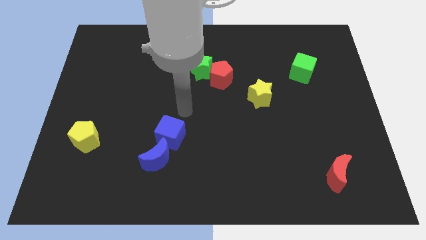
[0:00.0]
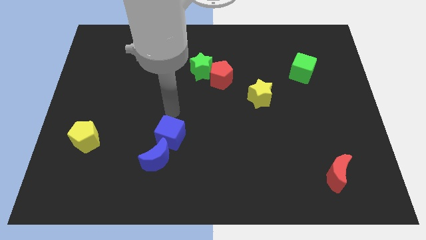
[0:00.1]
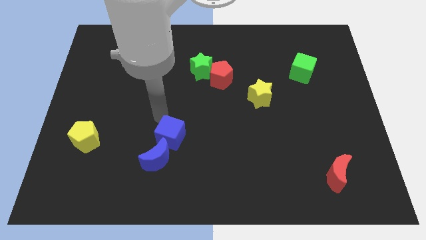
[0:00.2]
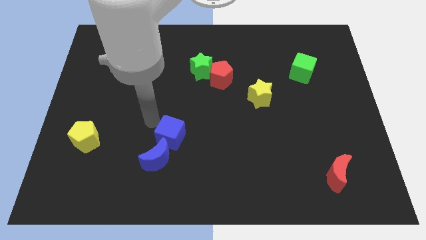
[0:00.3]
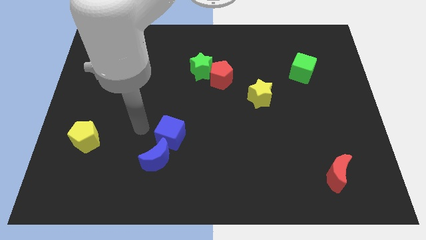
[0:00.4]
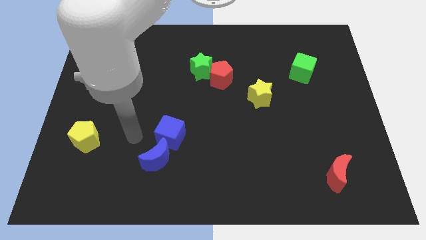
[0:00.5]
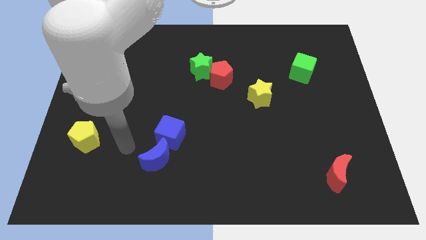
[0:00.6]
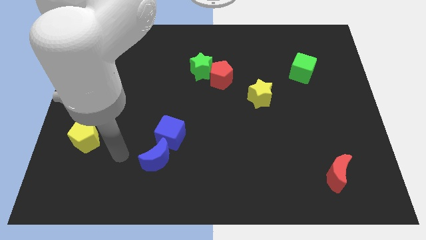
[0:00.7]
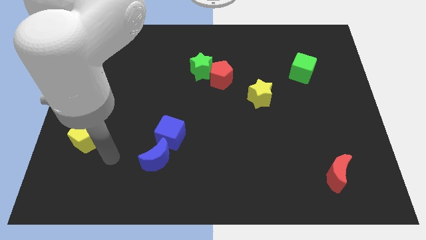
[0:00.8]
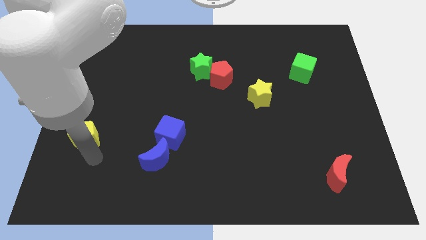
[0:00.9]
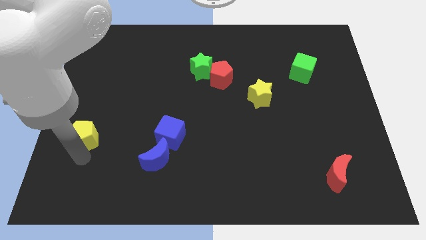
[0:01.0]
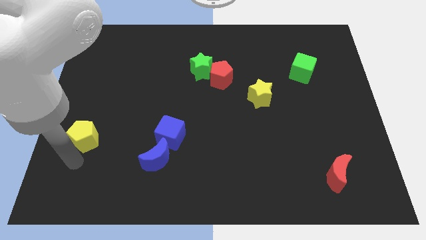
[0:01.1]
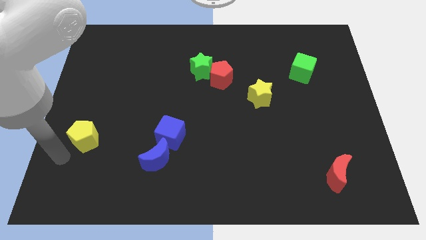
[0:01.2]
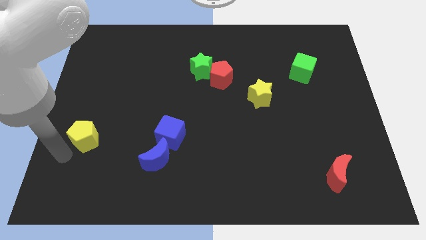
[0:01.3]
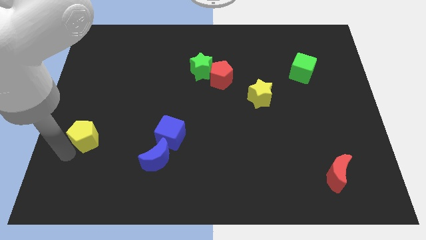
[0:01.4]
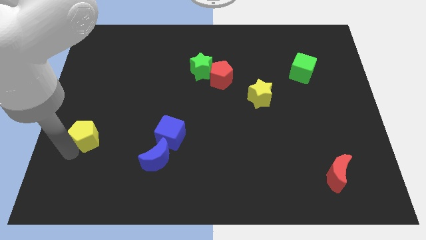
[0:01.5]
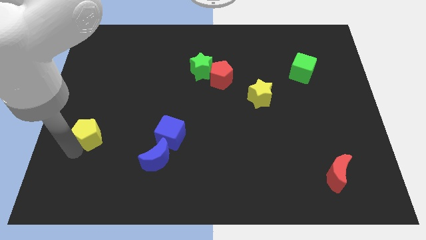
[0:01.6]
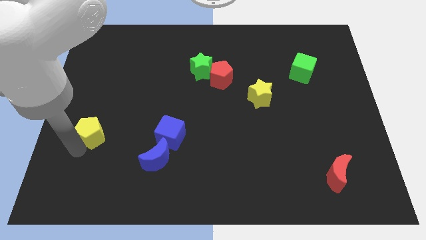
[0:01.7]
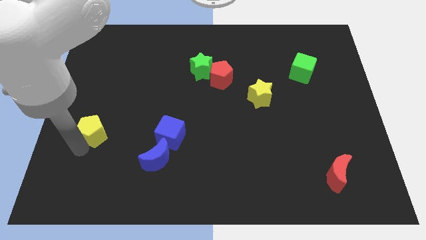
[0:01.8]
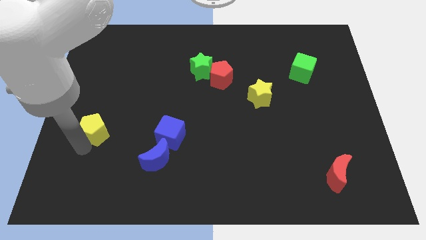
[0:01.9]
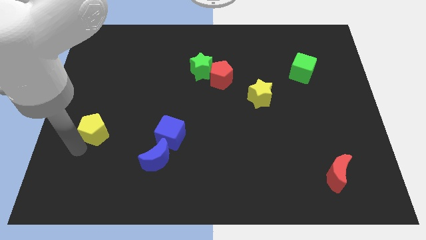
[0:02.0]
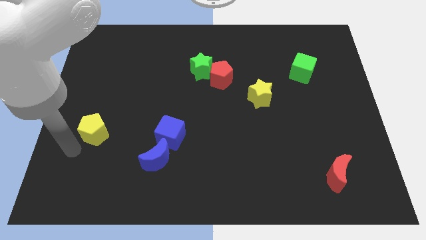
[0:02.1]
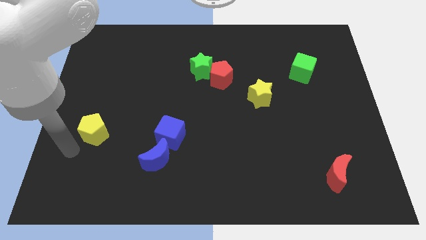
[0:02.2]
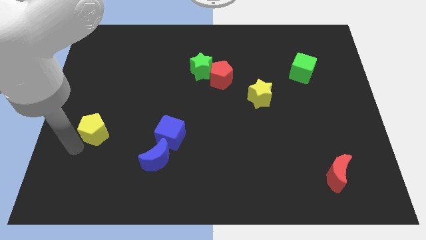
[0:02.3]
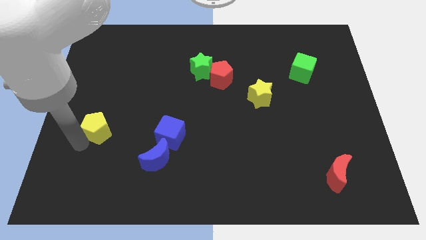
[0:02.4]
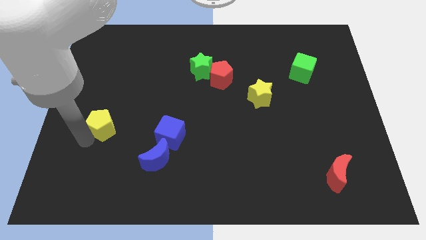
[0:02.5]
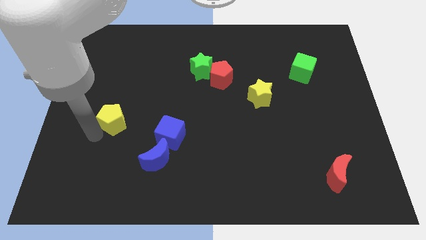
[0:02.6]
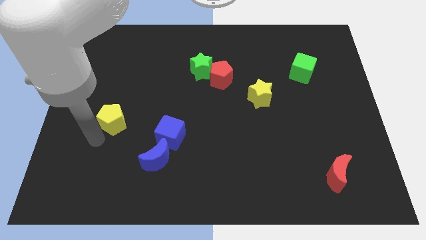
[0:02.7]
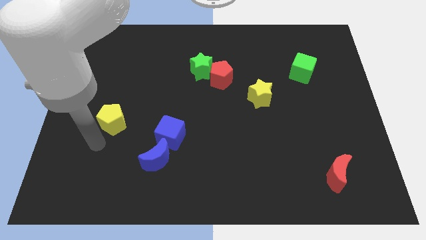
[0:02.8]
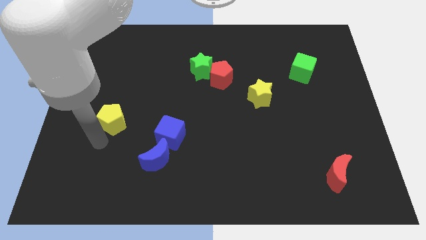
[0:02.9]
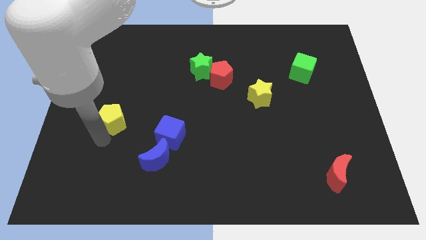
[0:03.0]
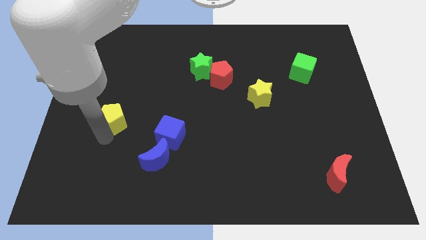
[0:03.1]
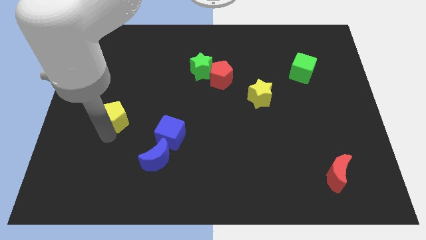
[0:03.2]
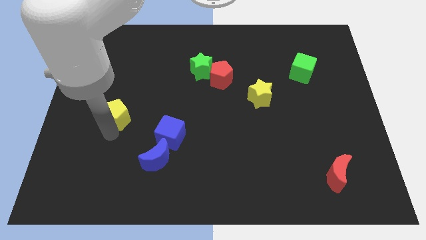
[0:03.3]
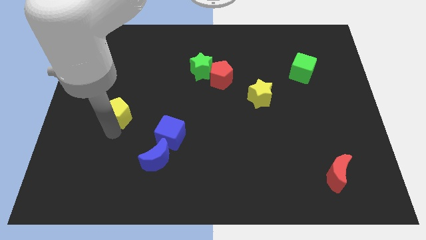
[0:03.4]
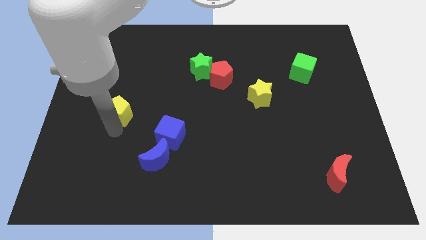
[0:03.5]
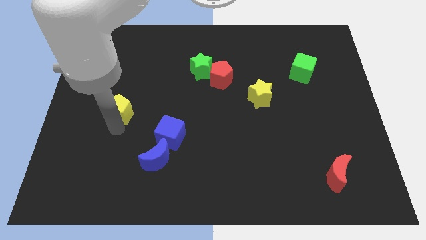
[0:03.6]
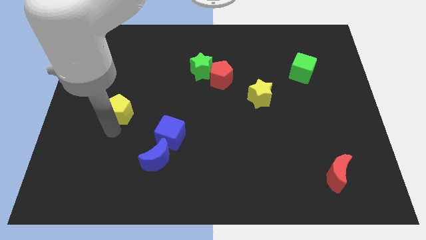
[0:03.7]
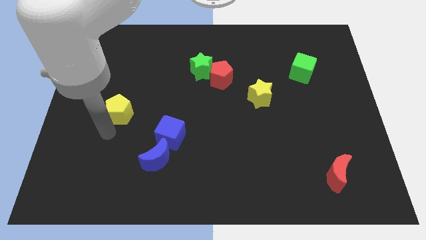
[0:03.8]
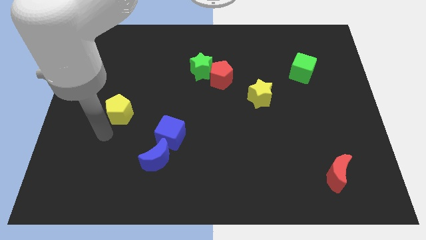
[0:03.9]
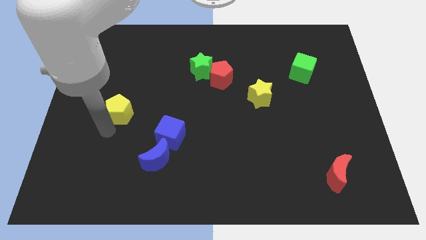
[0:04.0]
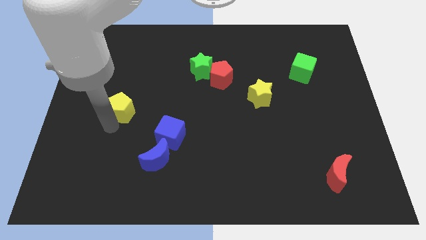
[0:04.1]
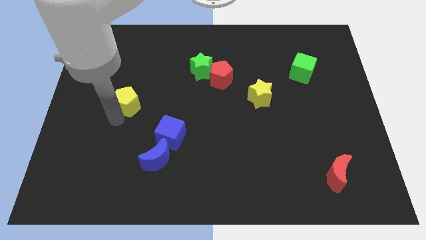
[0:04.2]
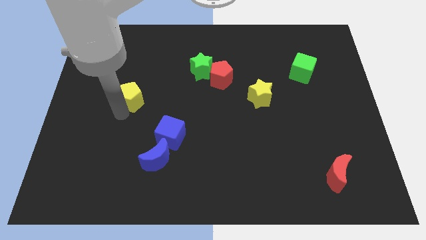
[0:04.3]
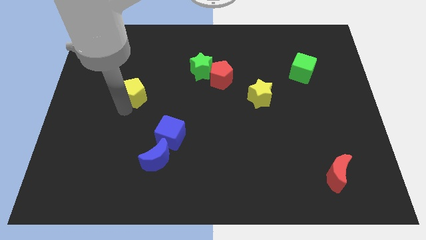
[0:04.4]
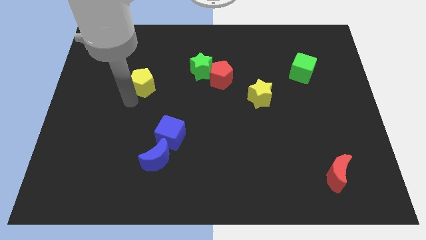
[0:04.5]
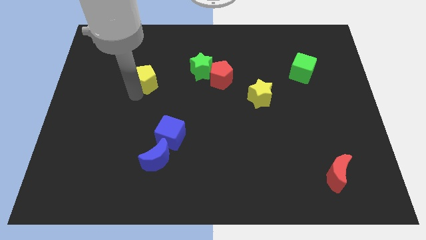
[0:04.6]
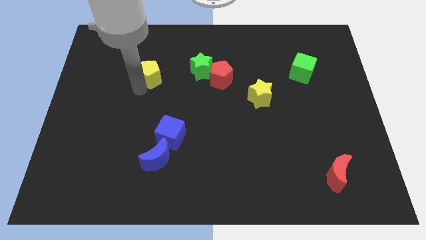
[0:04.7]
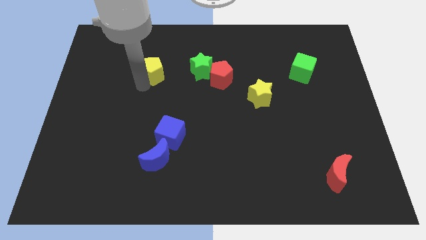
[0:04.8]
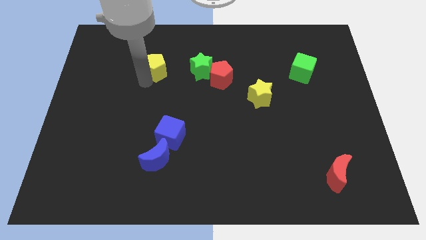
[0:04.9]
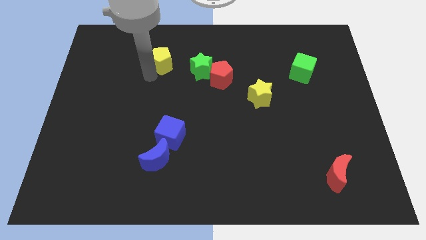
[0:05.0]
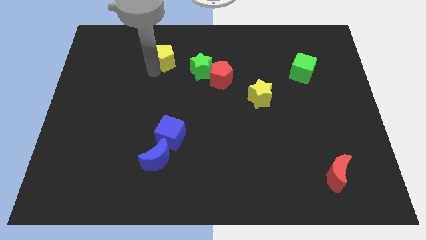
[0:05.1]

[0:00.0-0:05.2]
push the yellow pentagon to the top left of the green star

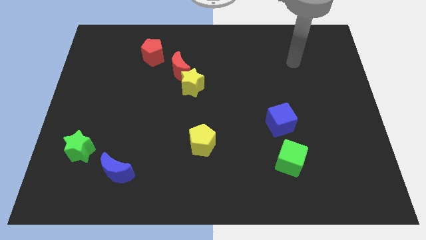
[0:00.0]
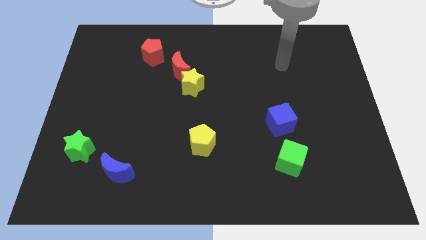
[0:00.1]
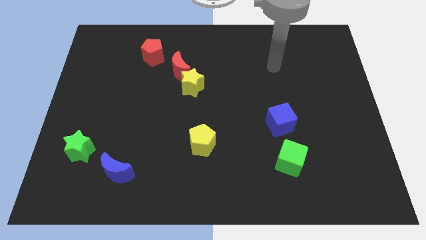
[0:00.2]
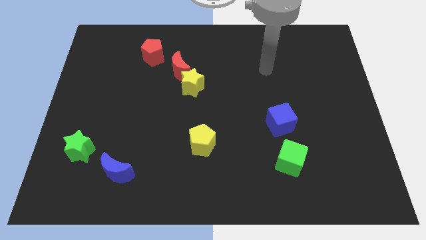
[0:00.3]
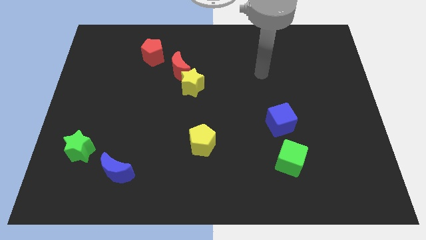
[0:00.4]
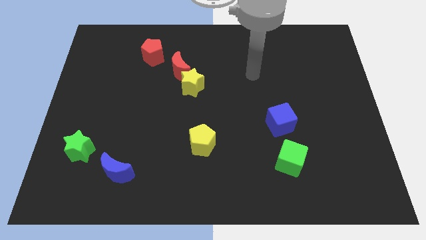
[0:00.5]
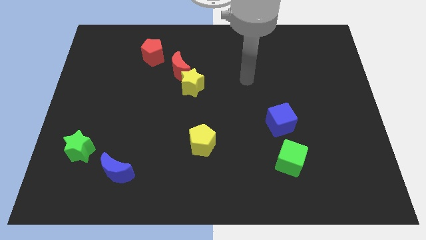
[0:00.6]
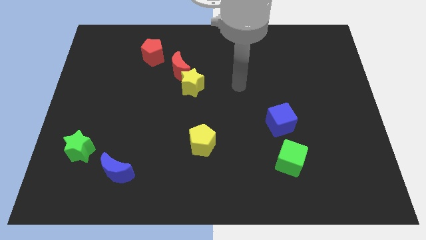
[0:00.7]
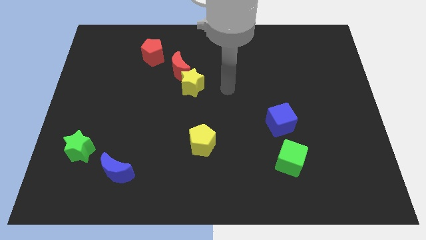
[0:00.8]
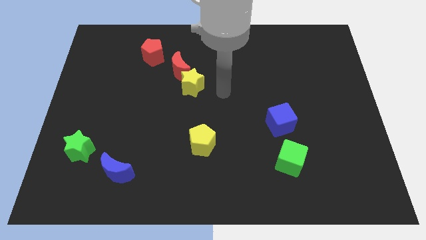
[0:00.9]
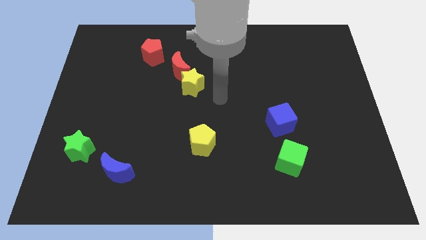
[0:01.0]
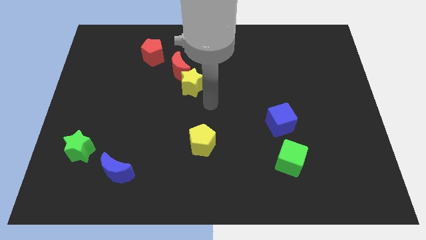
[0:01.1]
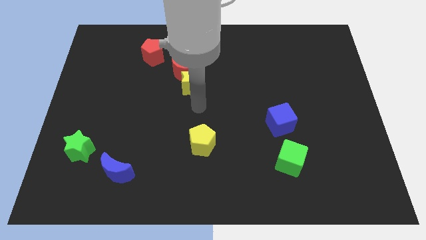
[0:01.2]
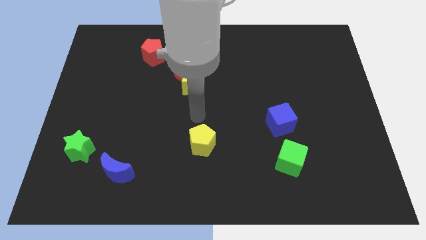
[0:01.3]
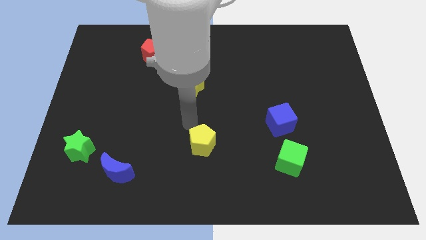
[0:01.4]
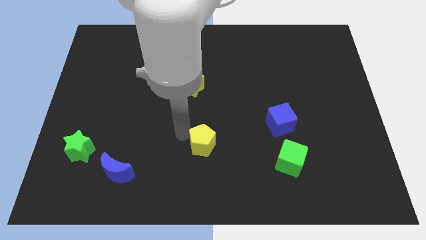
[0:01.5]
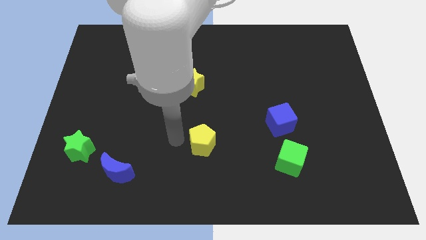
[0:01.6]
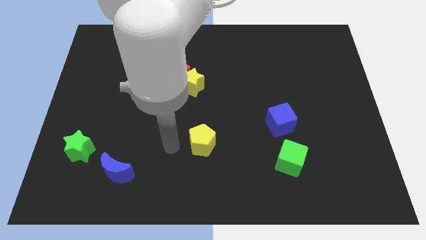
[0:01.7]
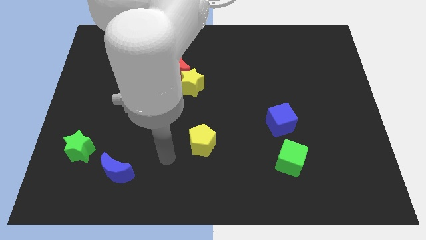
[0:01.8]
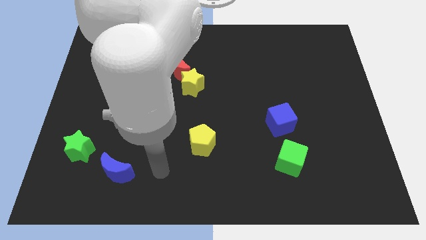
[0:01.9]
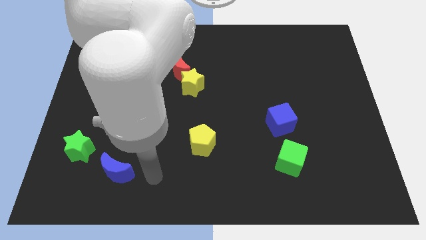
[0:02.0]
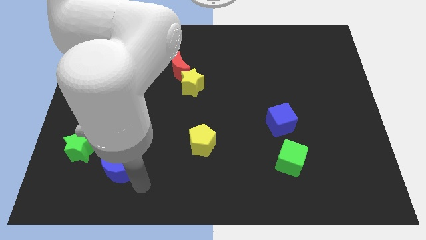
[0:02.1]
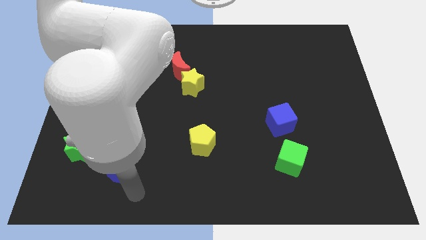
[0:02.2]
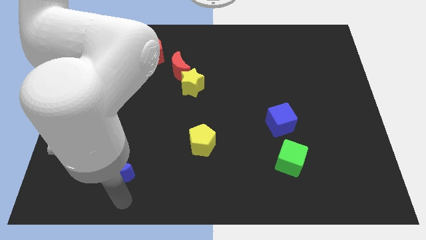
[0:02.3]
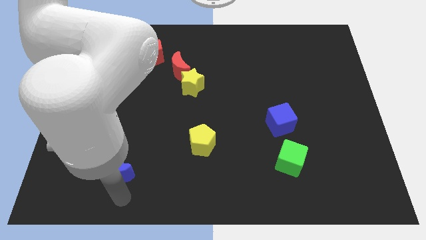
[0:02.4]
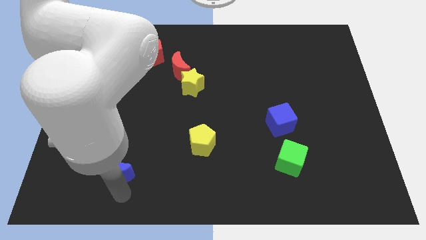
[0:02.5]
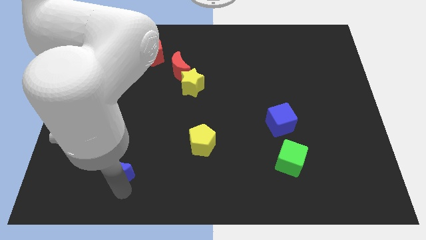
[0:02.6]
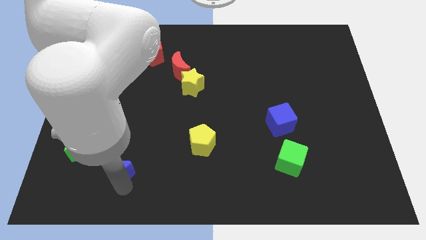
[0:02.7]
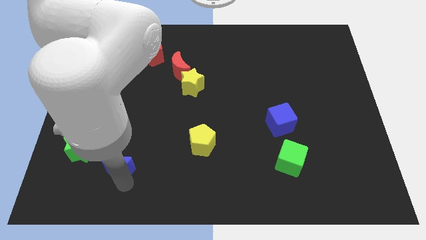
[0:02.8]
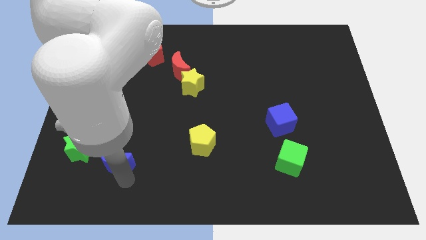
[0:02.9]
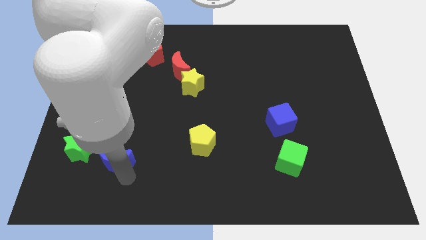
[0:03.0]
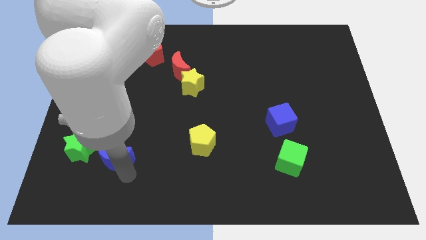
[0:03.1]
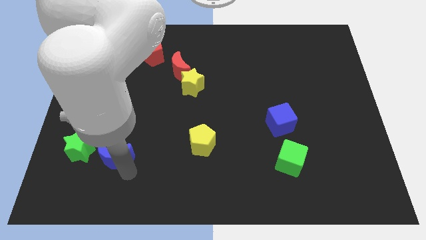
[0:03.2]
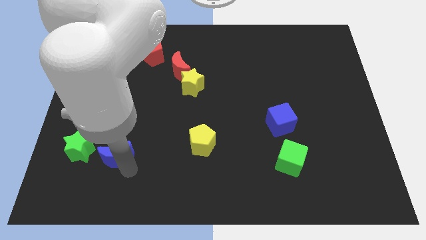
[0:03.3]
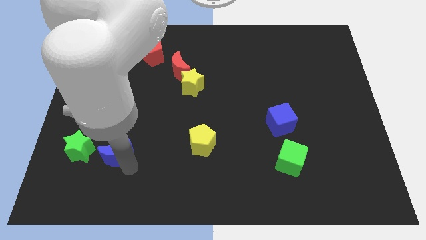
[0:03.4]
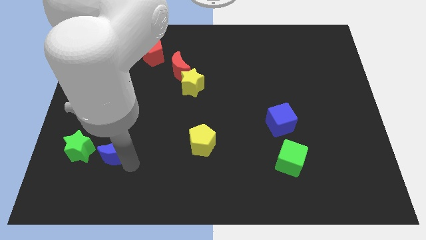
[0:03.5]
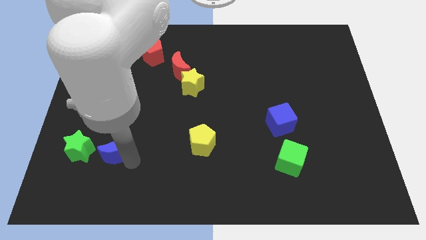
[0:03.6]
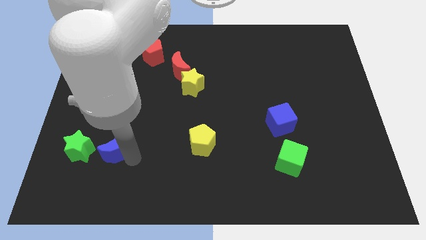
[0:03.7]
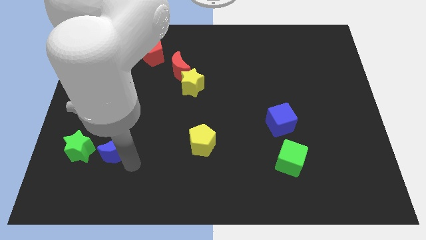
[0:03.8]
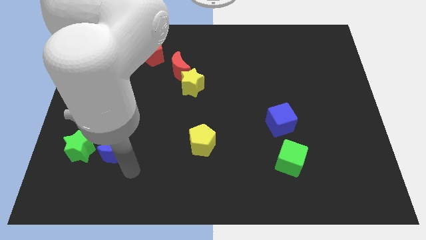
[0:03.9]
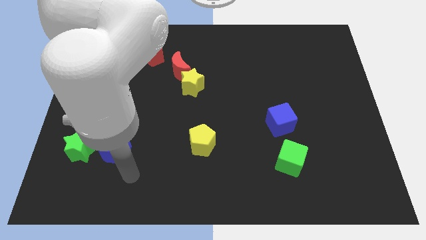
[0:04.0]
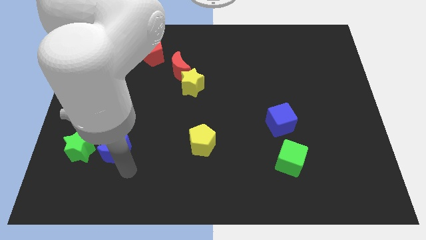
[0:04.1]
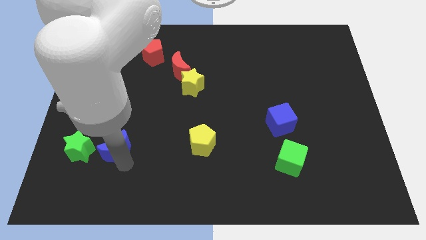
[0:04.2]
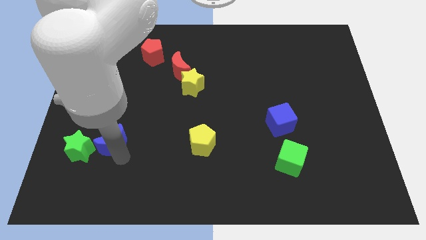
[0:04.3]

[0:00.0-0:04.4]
put the blue moon to the top right of the green star
